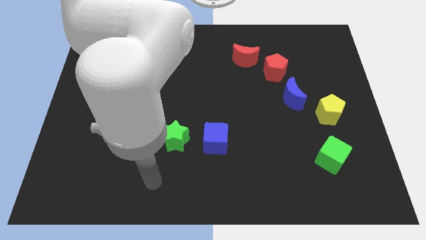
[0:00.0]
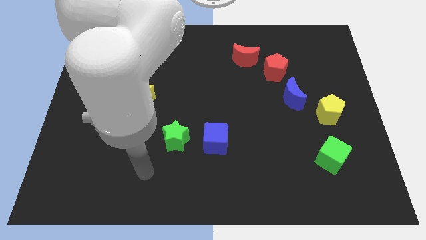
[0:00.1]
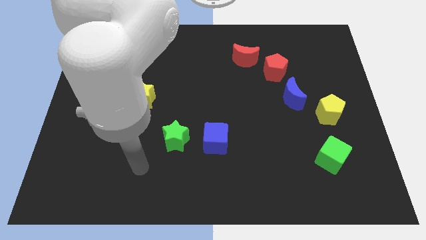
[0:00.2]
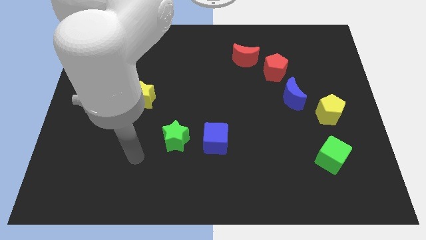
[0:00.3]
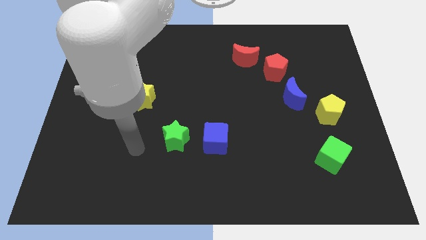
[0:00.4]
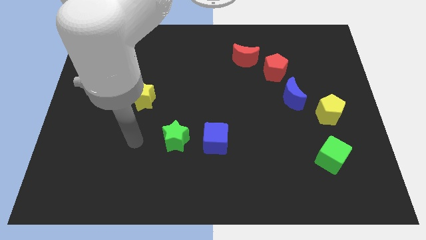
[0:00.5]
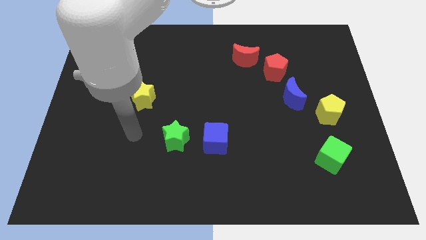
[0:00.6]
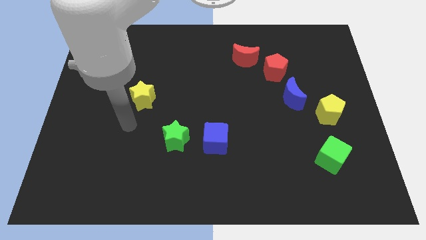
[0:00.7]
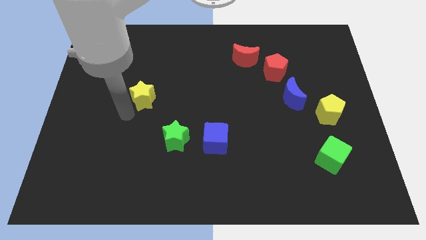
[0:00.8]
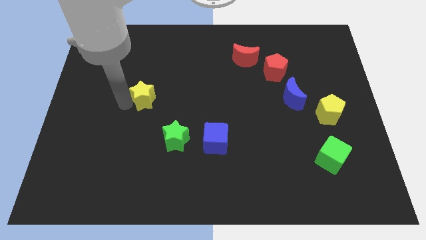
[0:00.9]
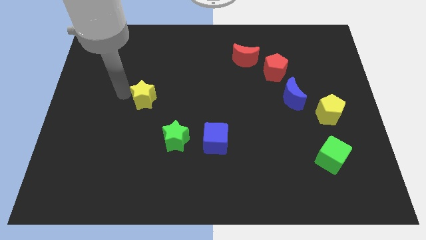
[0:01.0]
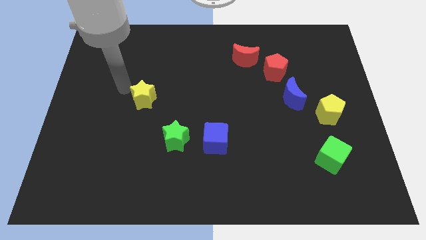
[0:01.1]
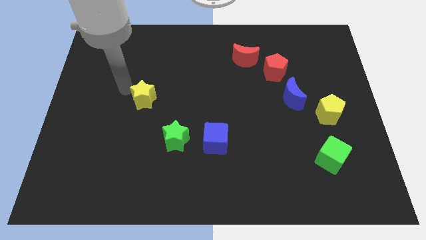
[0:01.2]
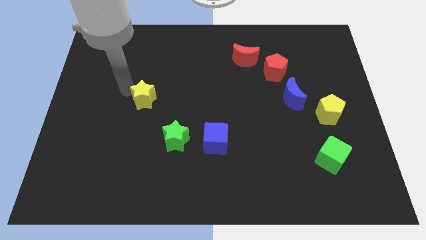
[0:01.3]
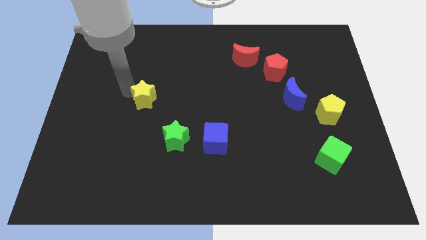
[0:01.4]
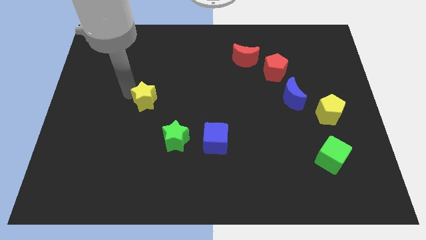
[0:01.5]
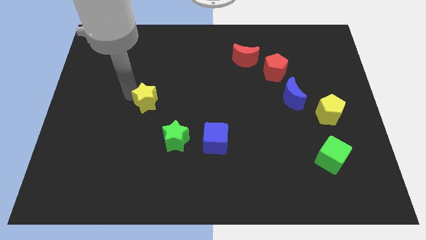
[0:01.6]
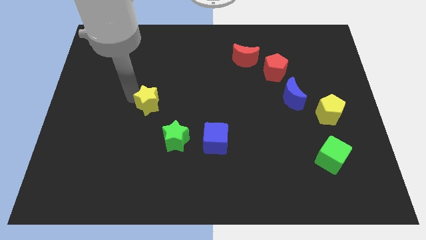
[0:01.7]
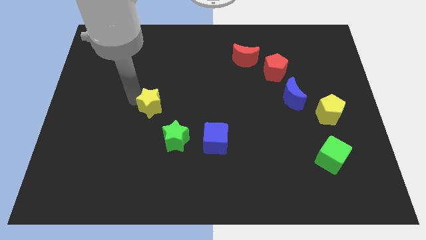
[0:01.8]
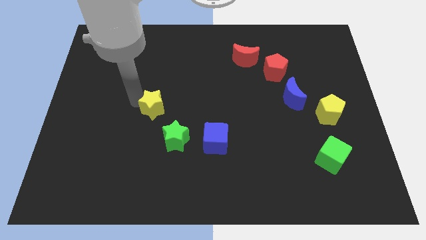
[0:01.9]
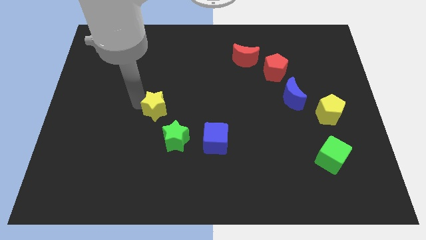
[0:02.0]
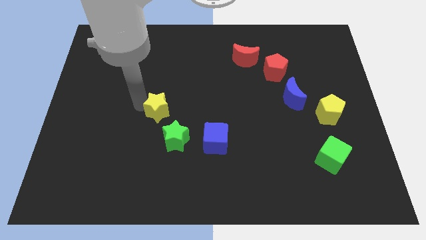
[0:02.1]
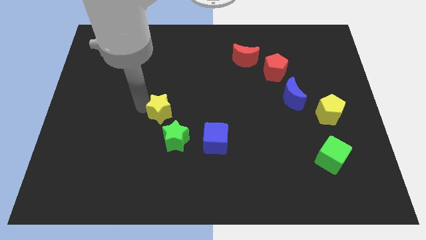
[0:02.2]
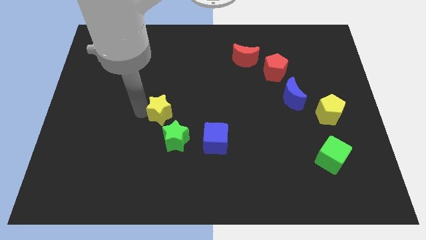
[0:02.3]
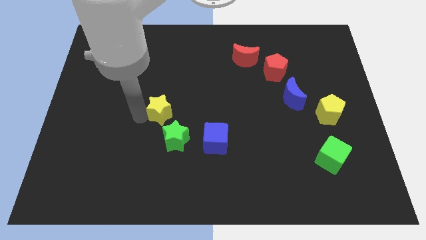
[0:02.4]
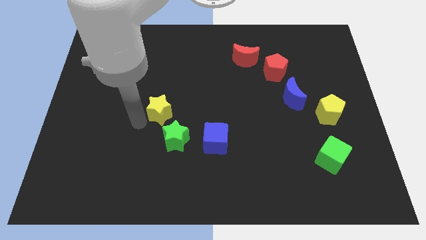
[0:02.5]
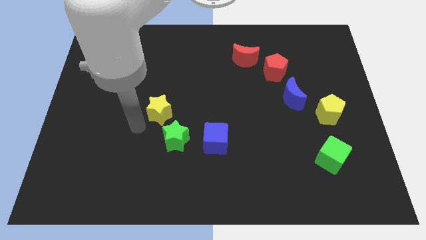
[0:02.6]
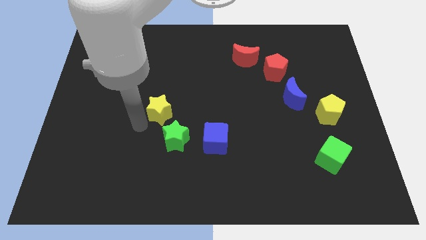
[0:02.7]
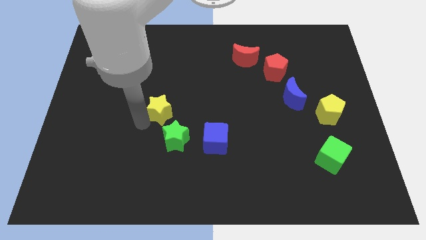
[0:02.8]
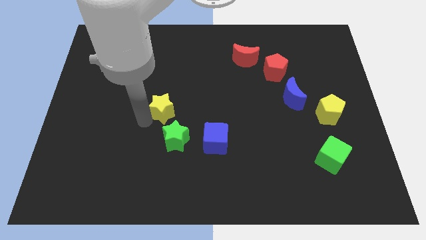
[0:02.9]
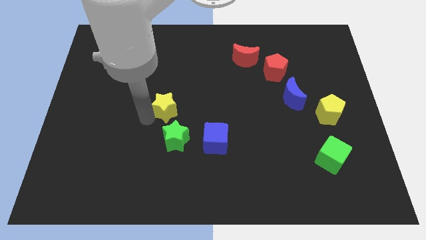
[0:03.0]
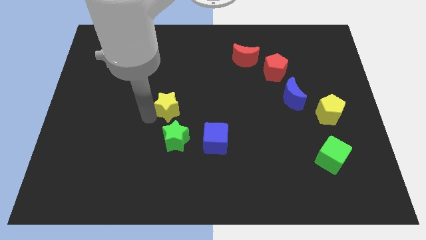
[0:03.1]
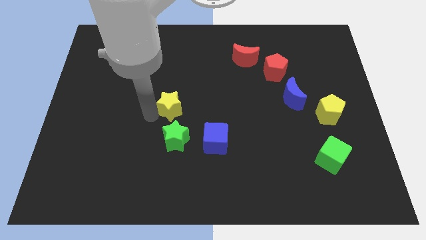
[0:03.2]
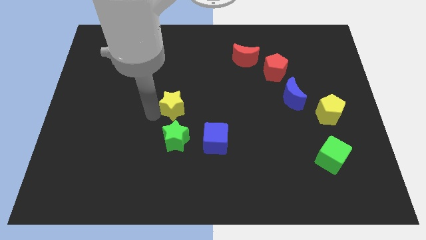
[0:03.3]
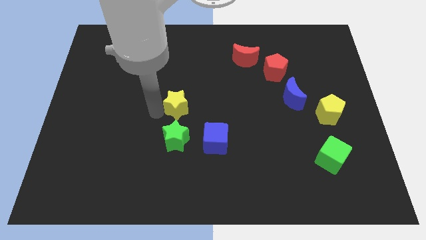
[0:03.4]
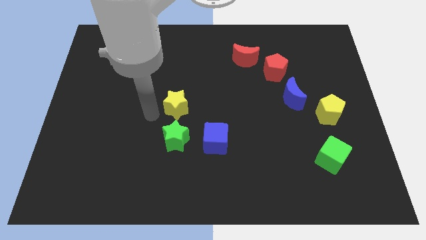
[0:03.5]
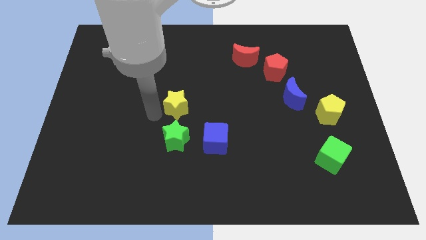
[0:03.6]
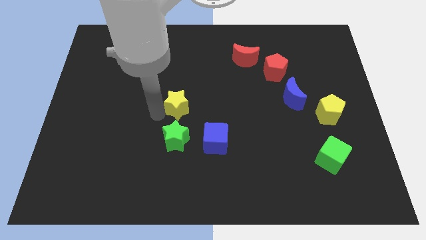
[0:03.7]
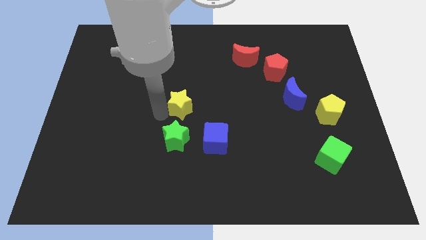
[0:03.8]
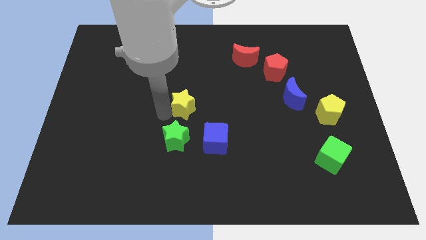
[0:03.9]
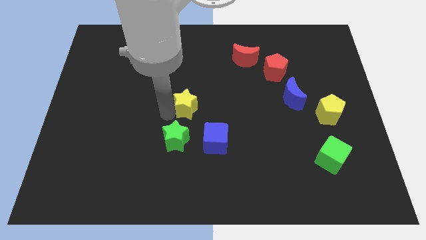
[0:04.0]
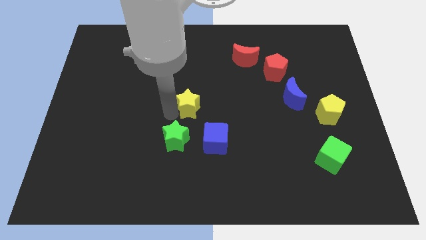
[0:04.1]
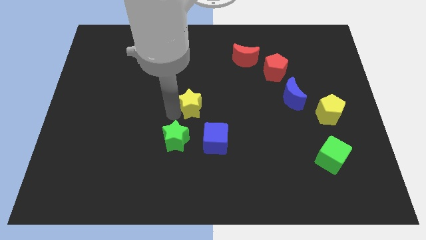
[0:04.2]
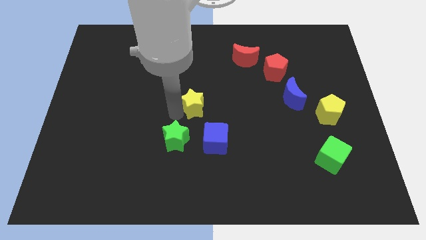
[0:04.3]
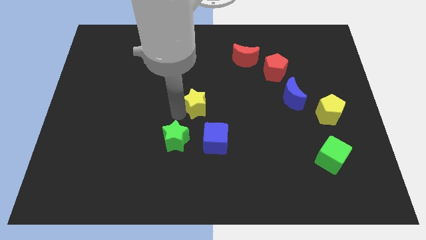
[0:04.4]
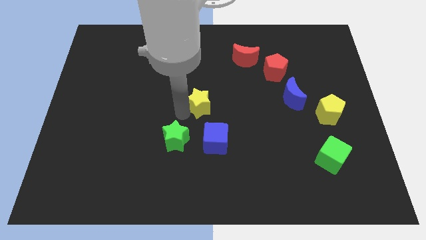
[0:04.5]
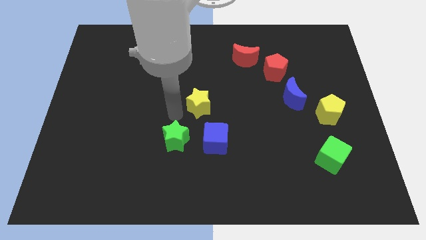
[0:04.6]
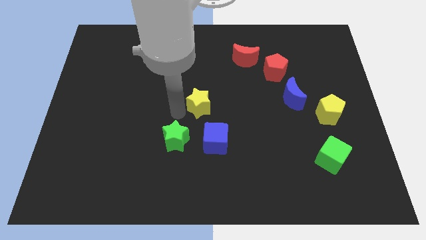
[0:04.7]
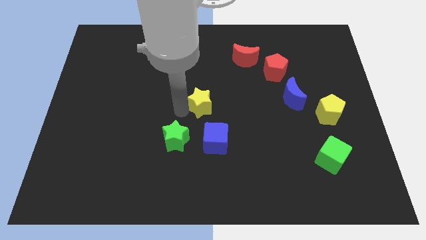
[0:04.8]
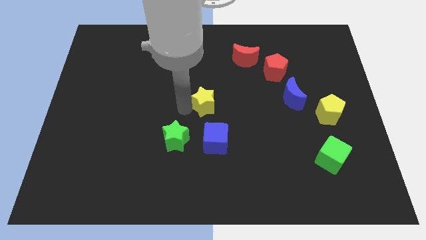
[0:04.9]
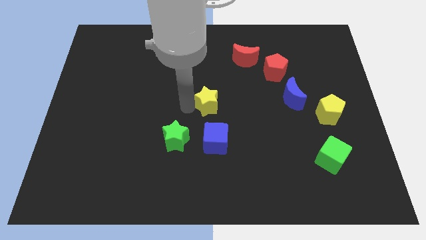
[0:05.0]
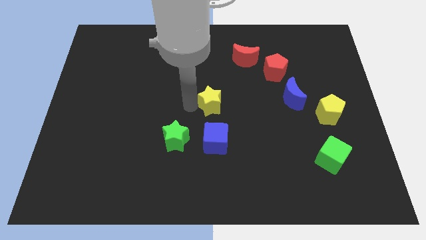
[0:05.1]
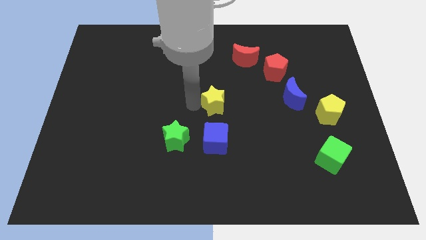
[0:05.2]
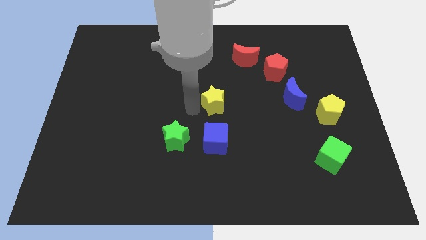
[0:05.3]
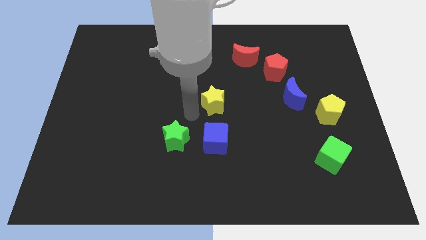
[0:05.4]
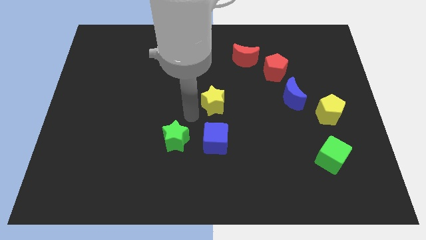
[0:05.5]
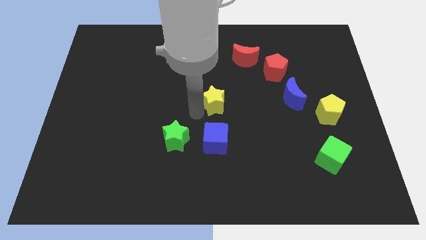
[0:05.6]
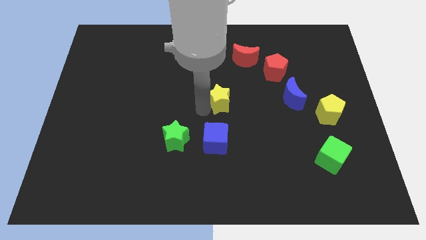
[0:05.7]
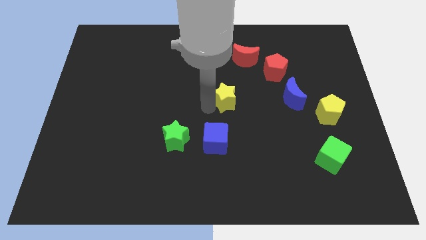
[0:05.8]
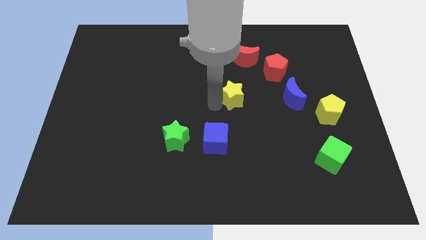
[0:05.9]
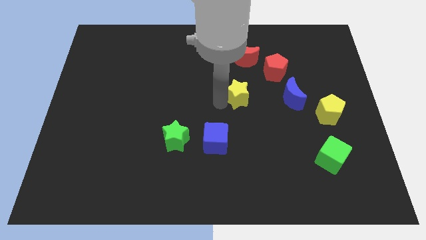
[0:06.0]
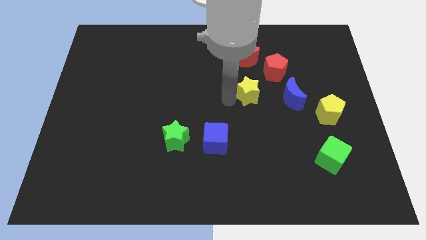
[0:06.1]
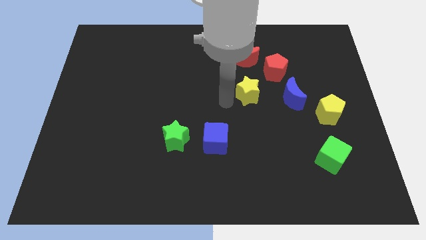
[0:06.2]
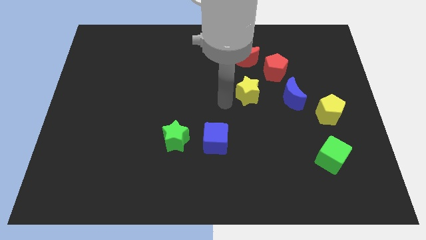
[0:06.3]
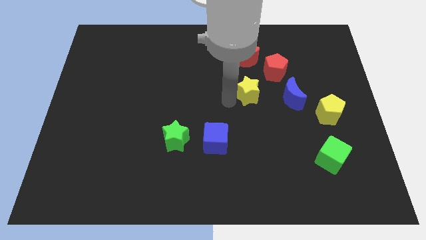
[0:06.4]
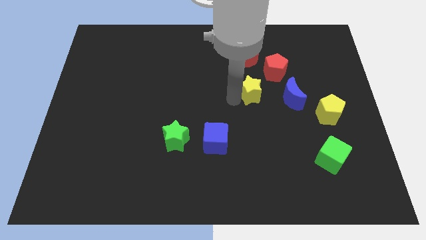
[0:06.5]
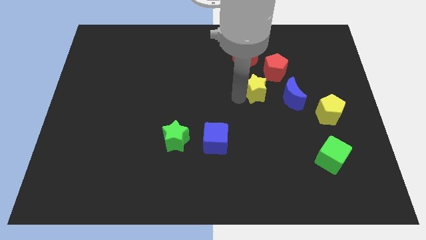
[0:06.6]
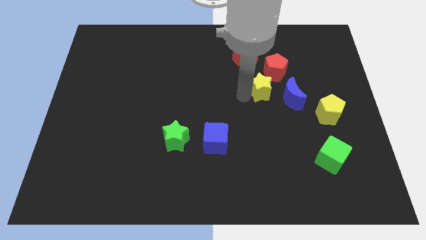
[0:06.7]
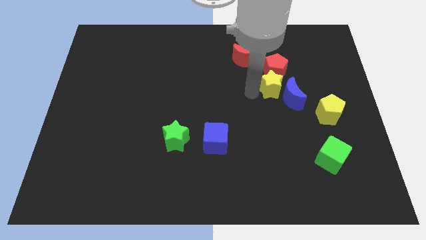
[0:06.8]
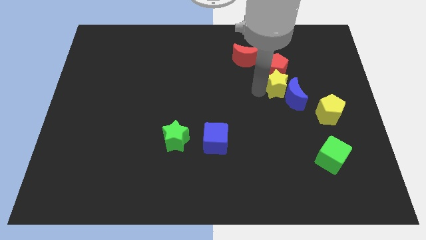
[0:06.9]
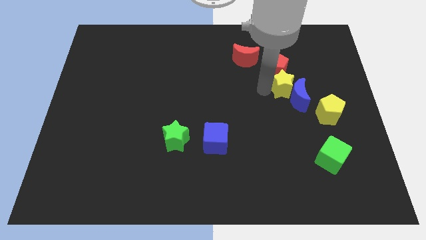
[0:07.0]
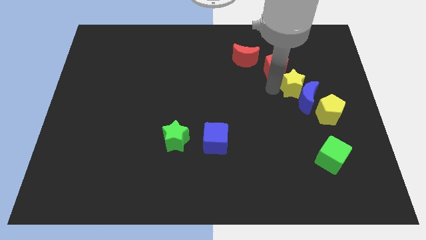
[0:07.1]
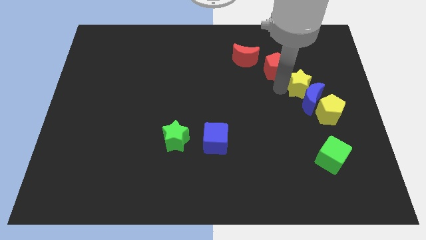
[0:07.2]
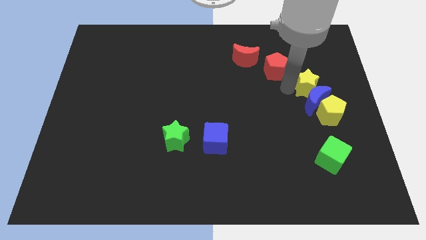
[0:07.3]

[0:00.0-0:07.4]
move the yellow star above the yellow pentagon
